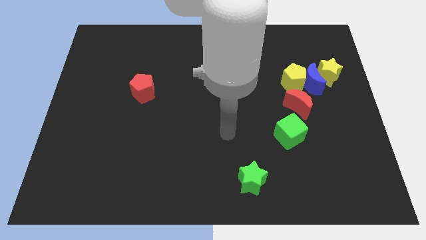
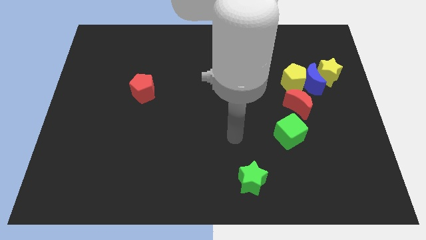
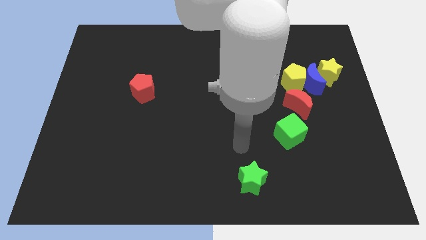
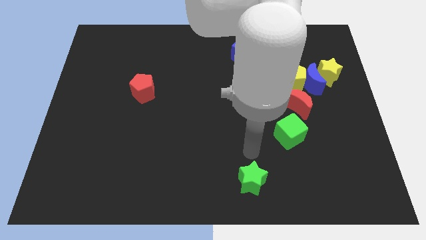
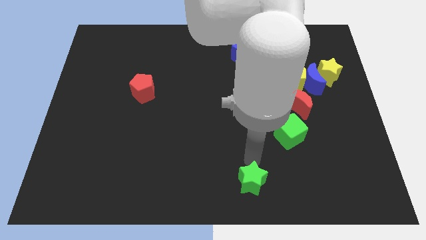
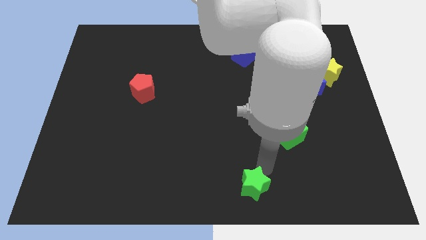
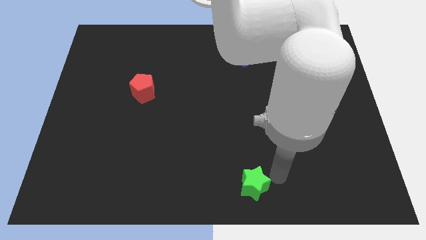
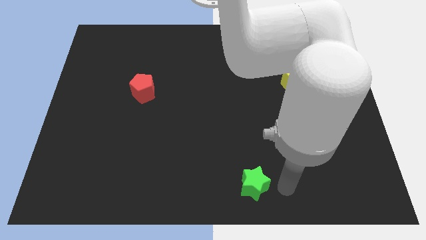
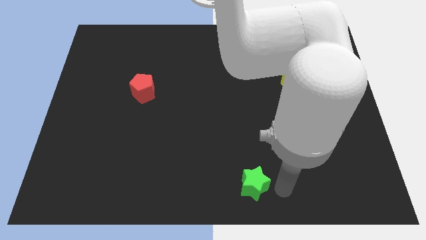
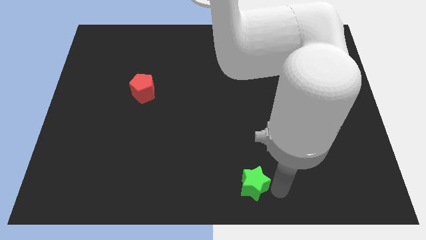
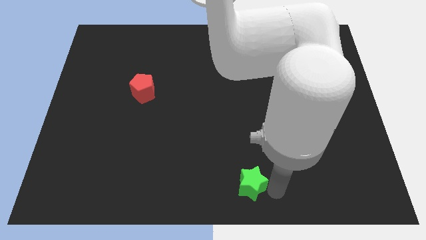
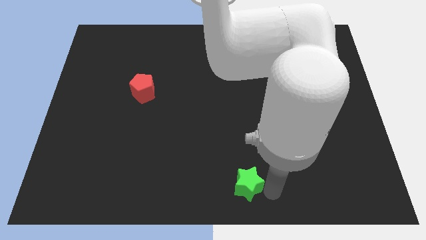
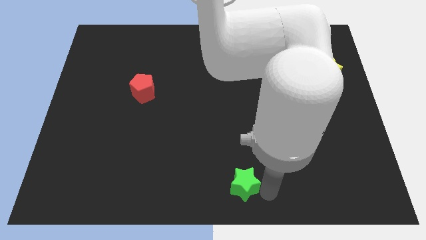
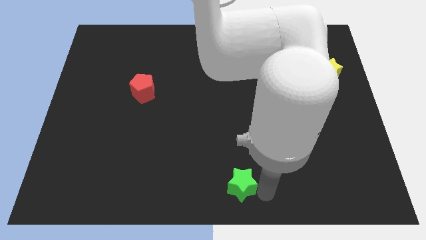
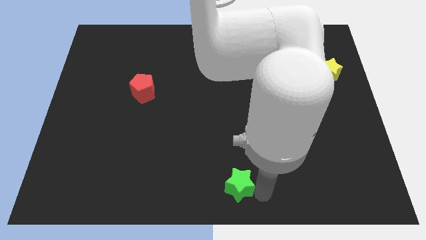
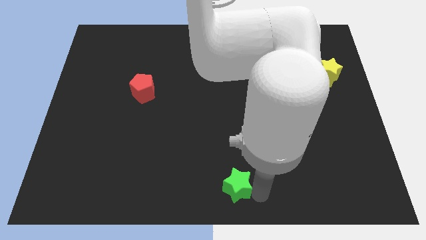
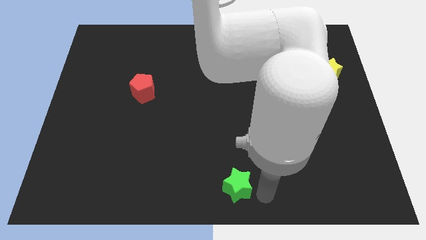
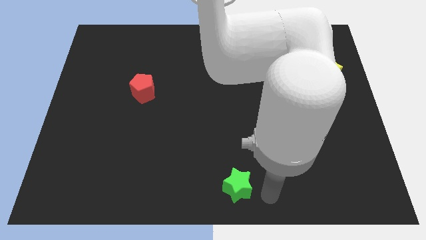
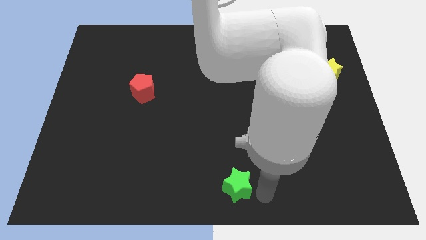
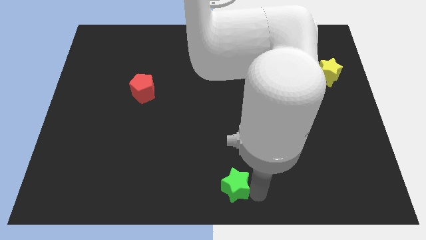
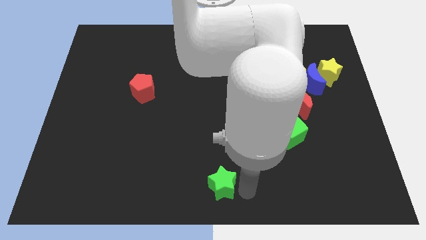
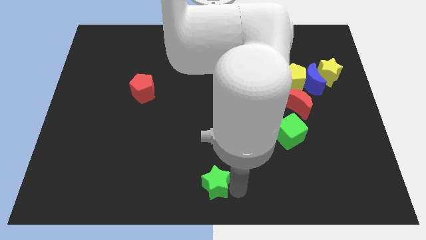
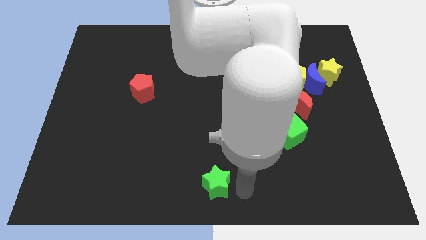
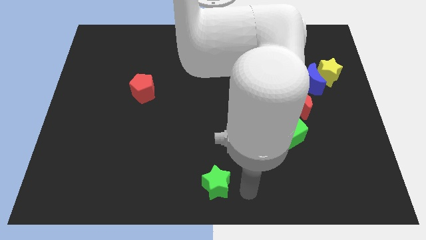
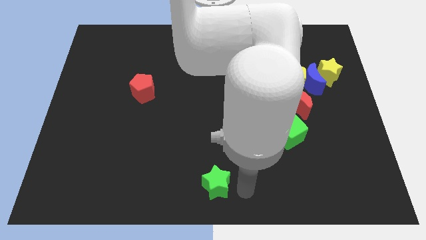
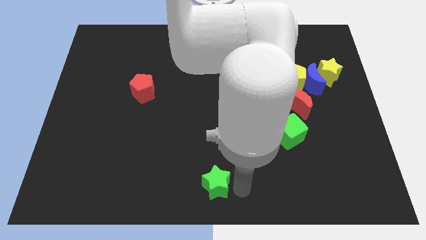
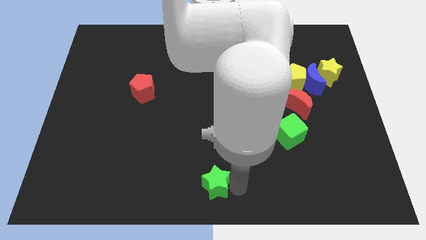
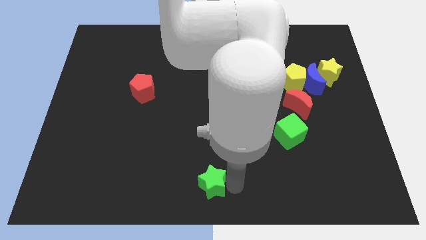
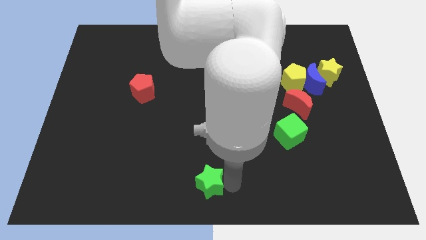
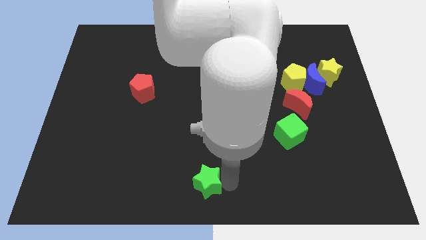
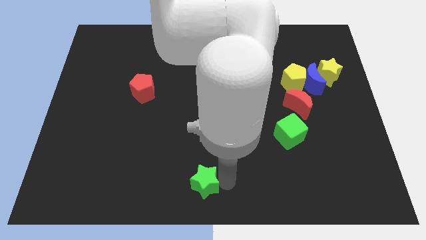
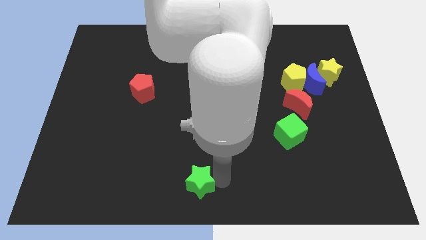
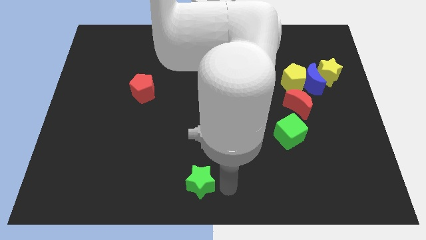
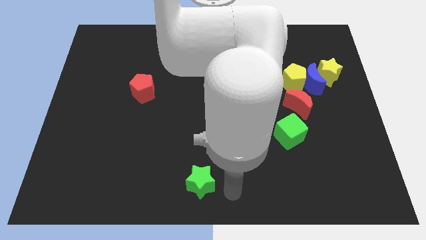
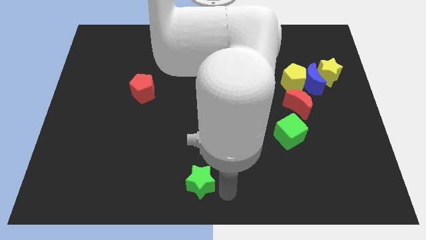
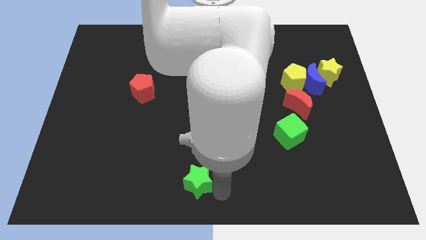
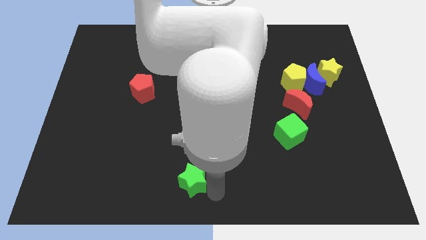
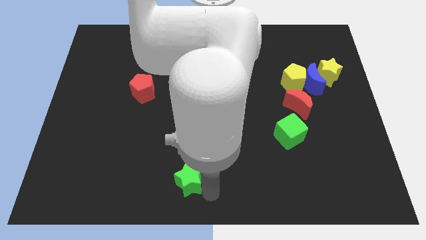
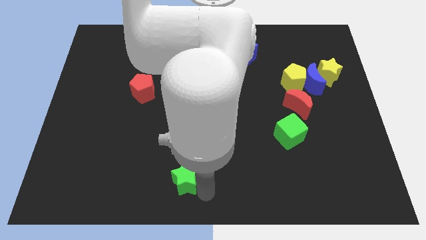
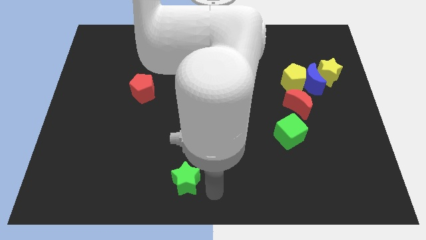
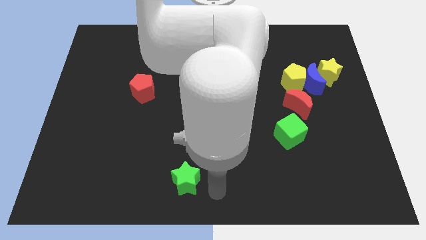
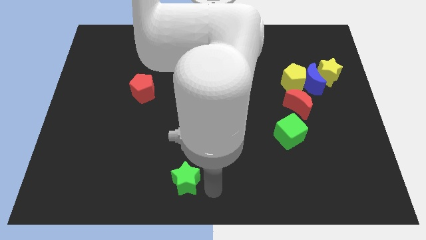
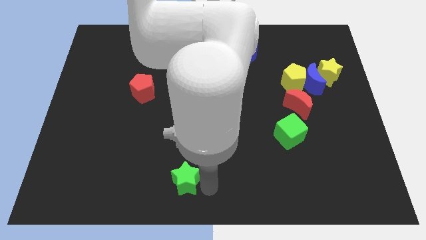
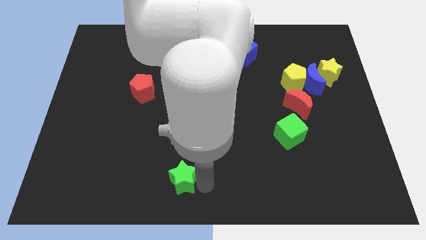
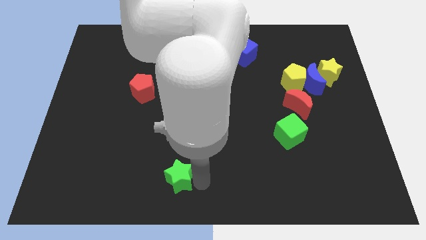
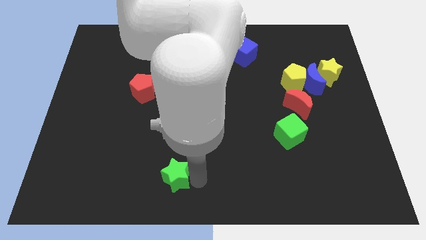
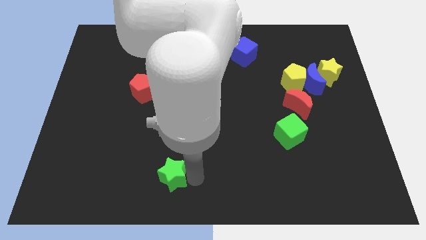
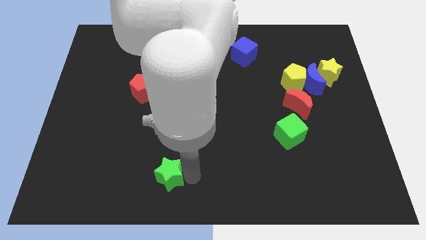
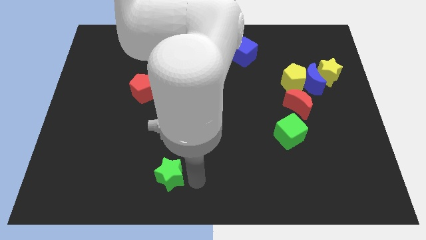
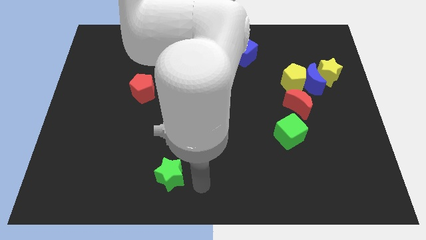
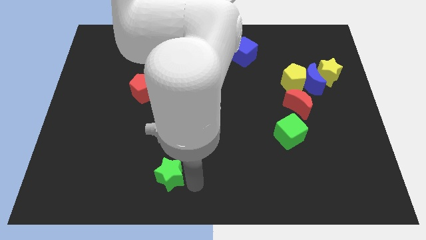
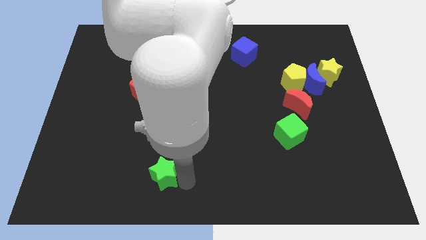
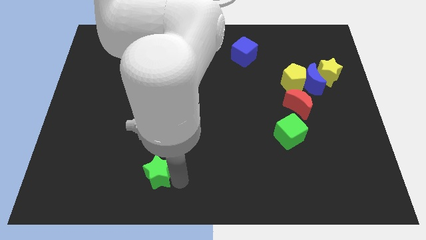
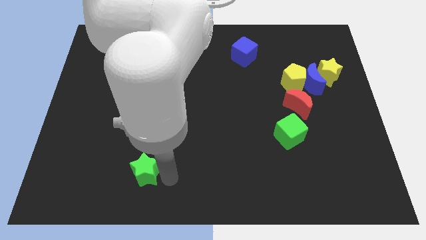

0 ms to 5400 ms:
move the green star to the left

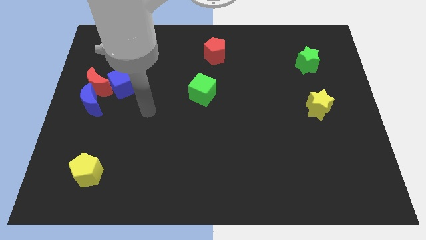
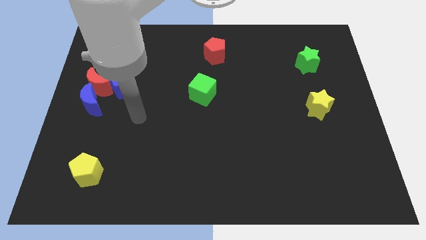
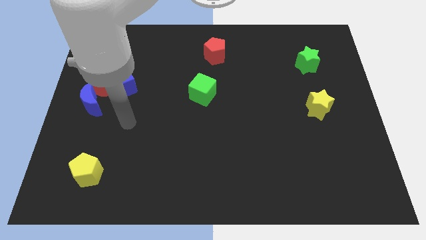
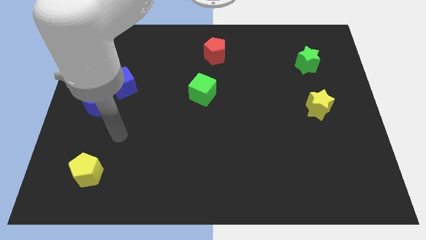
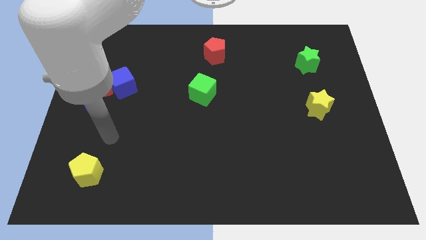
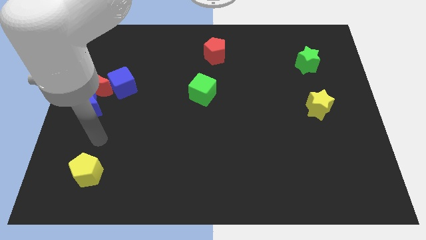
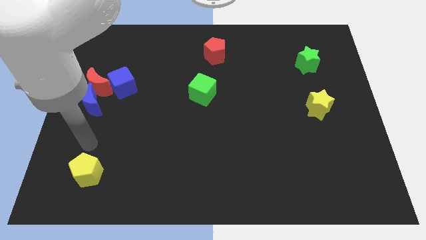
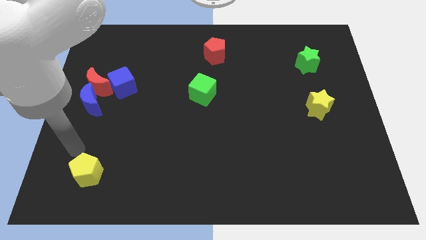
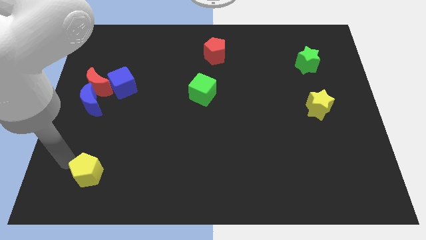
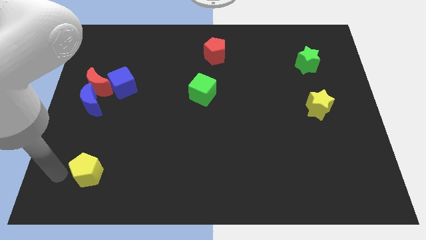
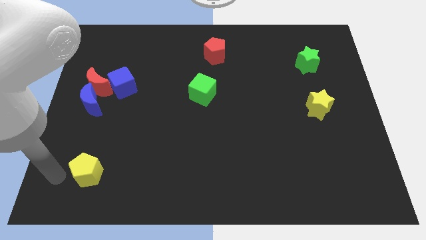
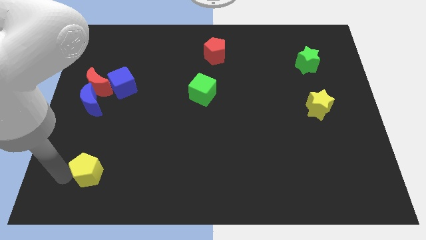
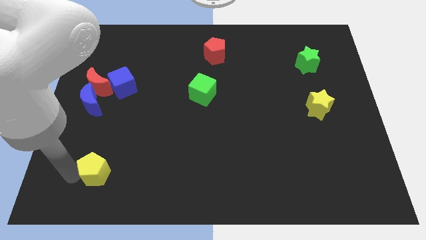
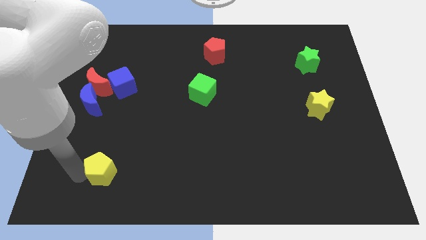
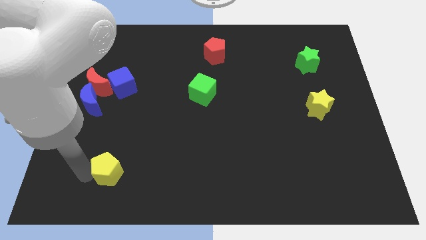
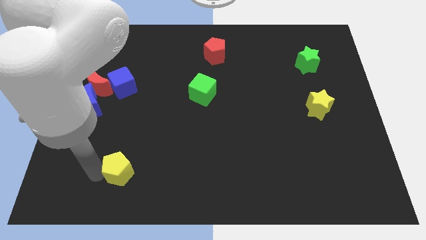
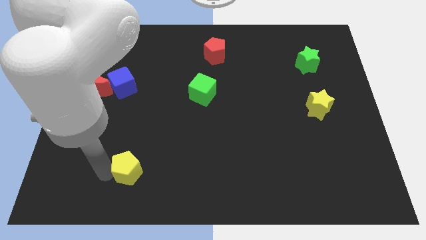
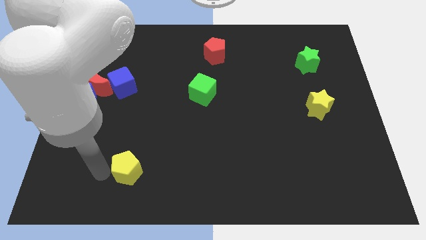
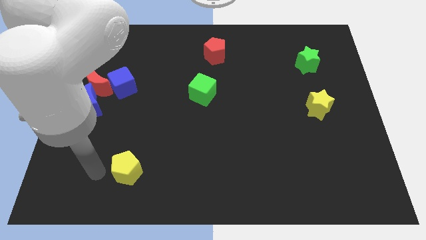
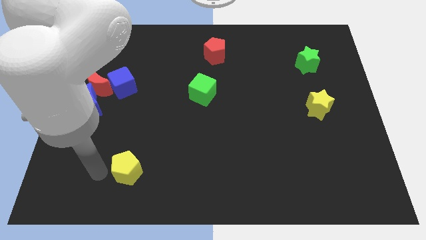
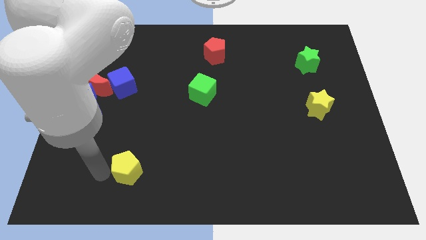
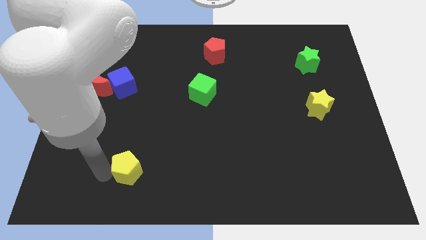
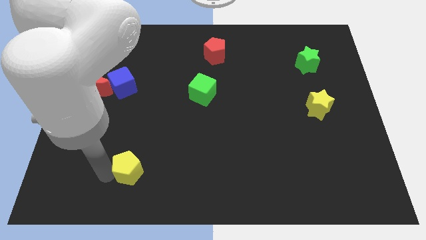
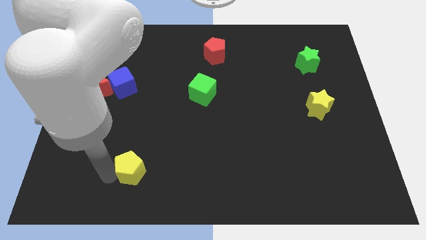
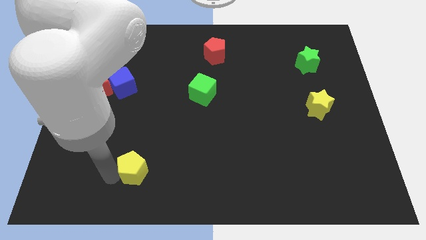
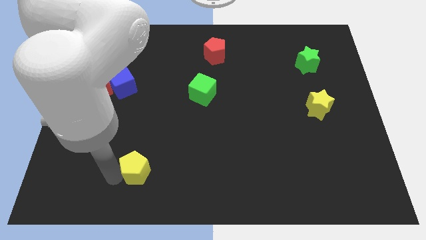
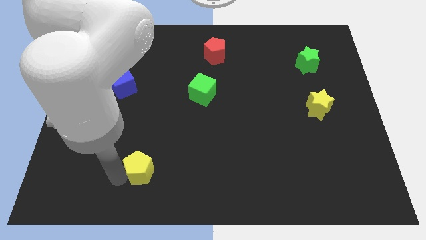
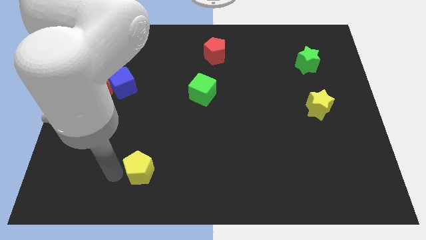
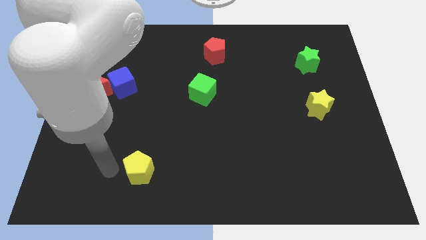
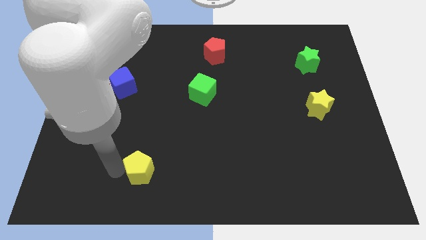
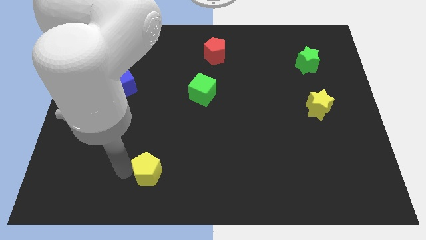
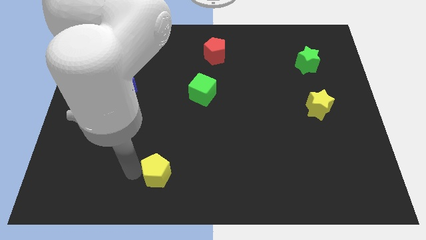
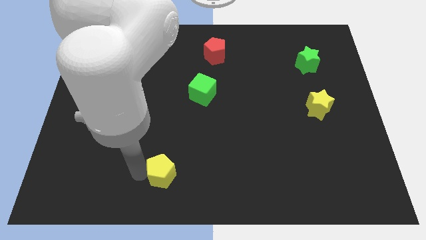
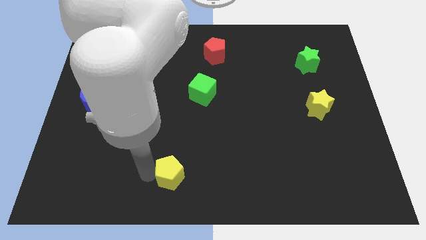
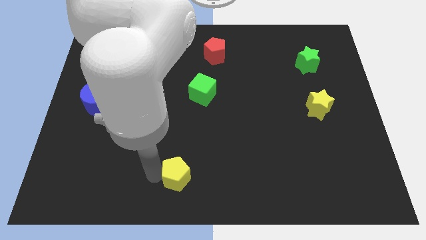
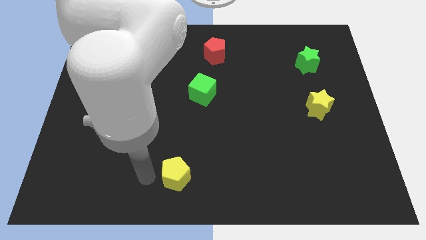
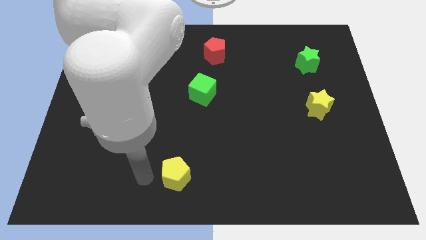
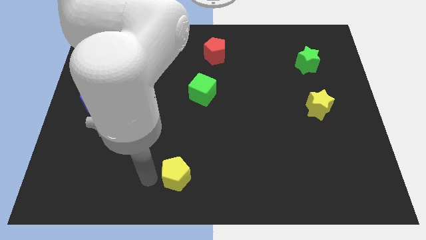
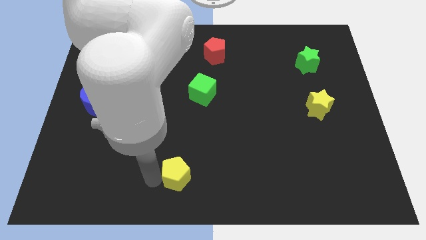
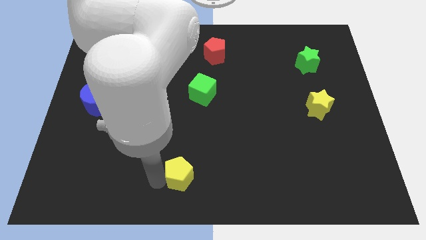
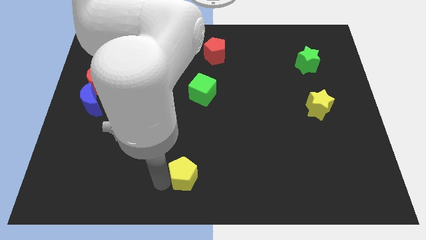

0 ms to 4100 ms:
slide the yellow pentagon right
